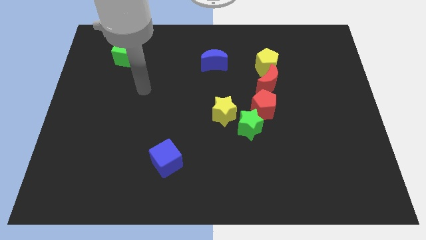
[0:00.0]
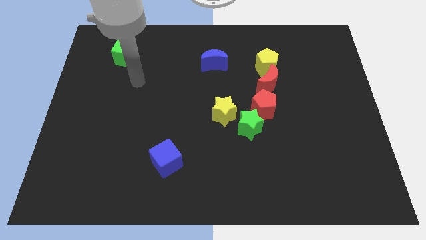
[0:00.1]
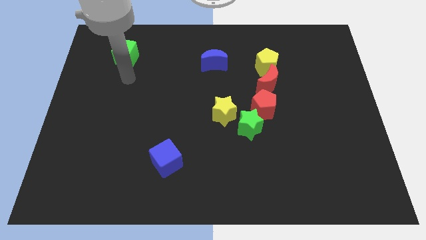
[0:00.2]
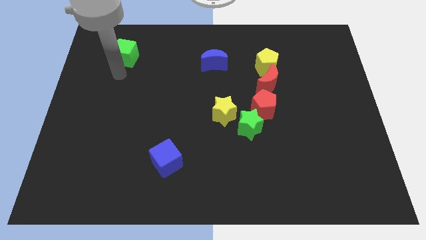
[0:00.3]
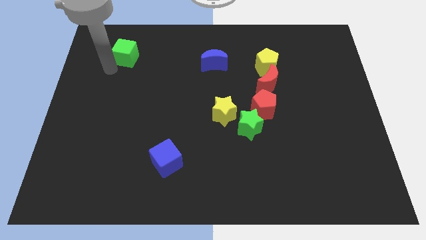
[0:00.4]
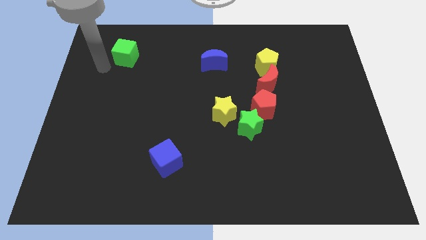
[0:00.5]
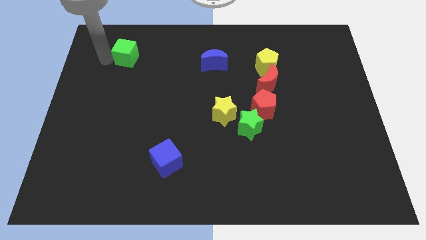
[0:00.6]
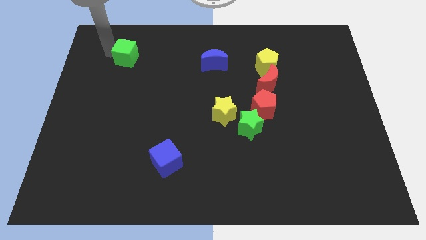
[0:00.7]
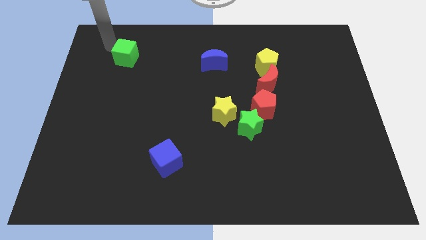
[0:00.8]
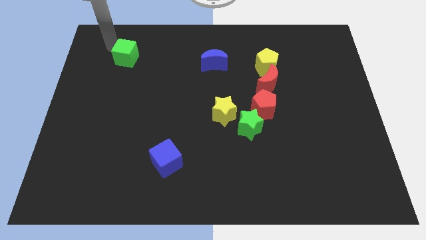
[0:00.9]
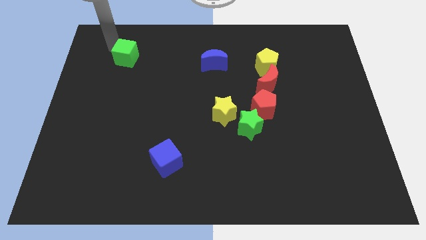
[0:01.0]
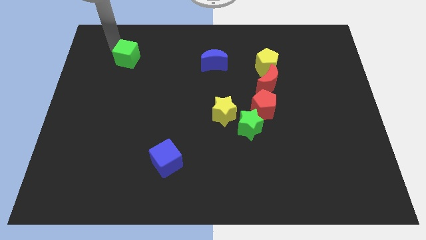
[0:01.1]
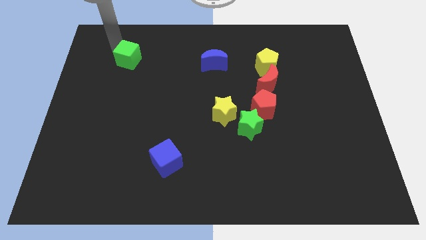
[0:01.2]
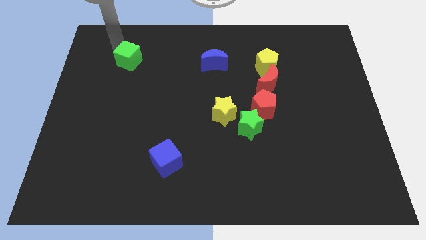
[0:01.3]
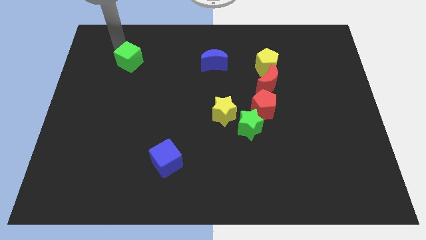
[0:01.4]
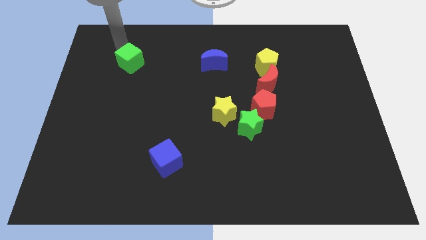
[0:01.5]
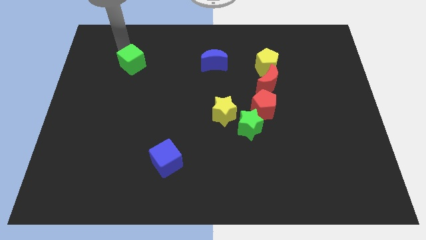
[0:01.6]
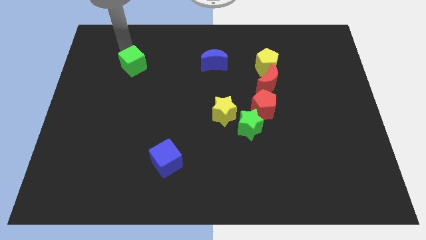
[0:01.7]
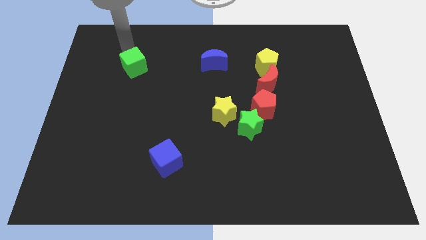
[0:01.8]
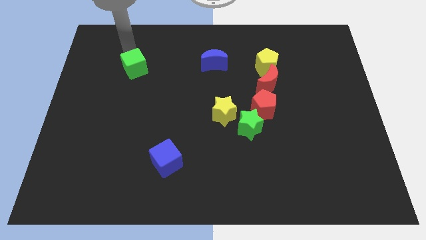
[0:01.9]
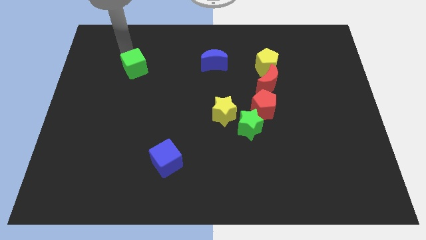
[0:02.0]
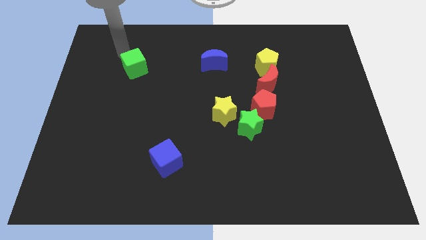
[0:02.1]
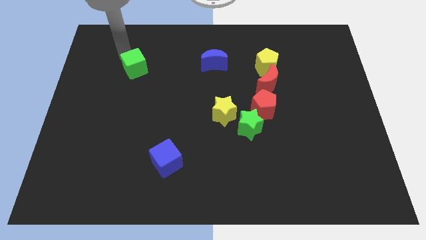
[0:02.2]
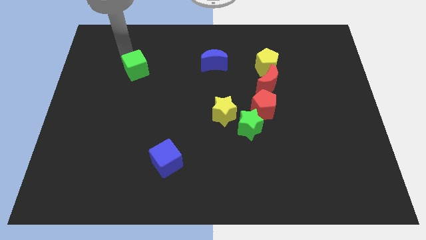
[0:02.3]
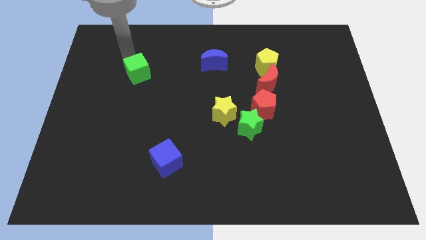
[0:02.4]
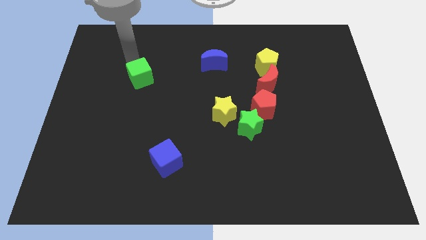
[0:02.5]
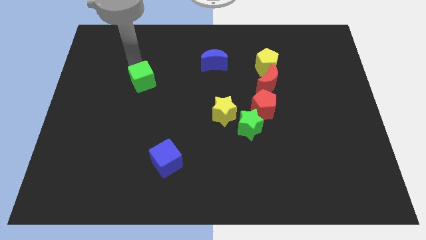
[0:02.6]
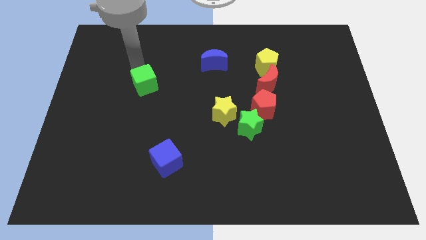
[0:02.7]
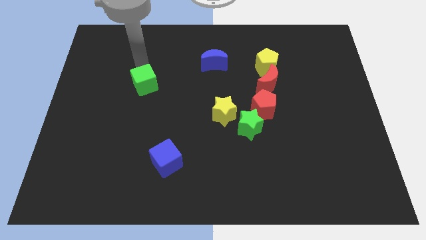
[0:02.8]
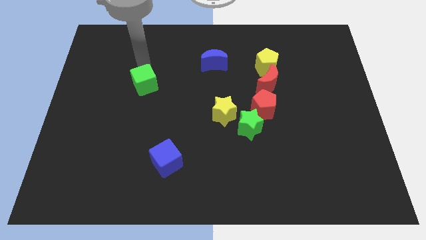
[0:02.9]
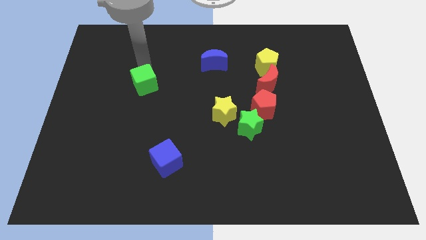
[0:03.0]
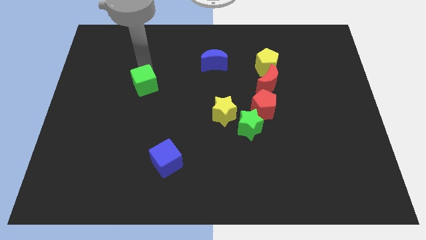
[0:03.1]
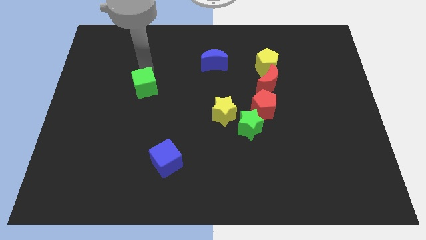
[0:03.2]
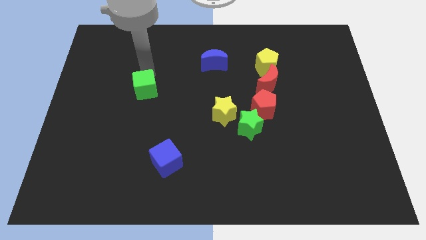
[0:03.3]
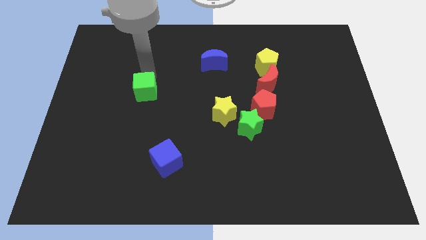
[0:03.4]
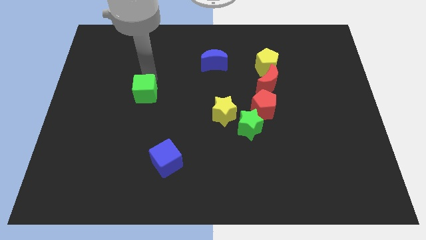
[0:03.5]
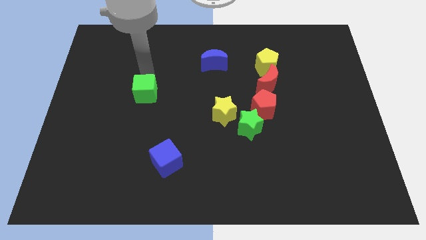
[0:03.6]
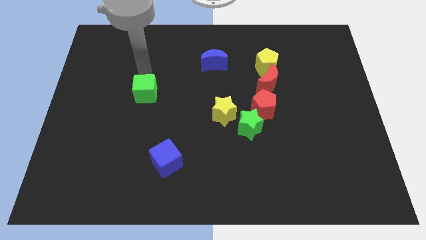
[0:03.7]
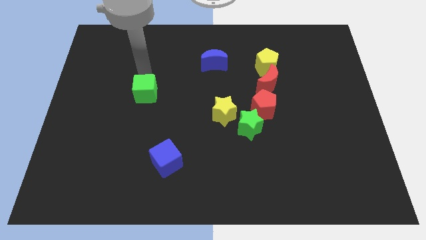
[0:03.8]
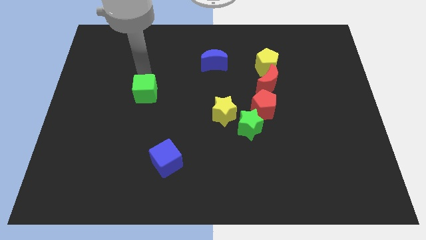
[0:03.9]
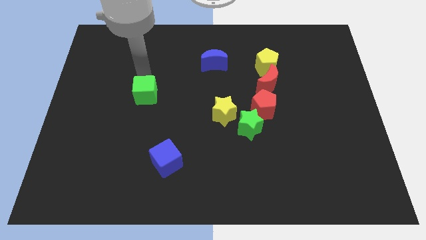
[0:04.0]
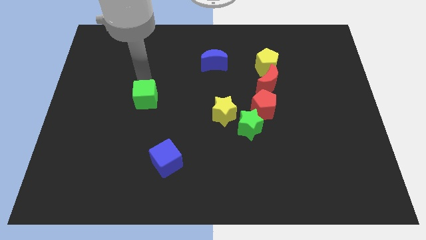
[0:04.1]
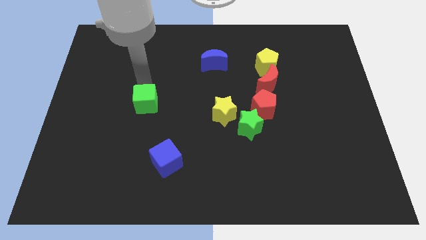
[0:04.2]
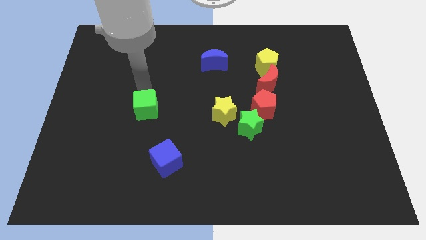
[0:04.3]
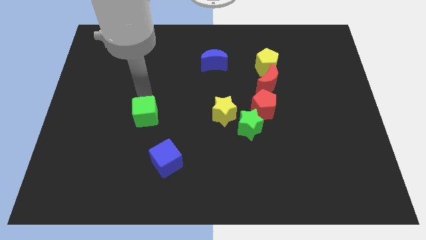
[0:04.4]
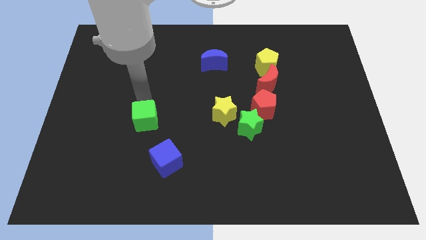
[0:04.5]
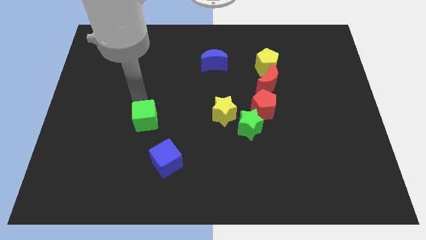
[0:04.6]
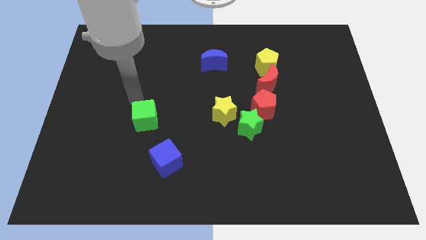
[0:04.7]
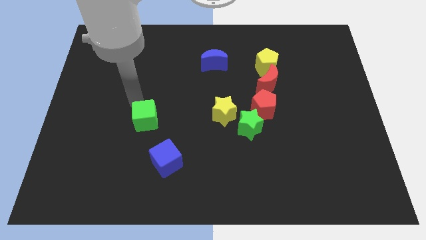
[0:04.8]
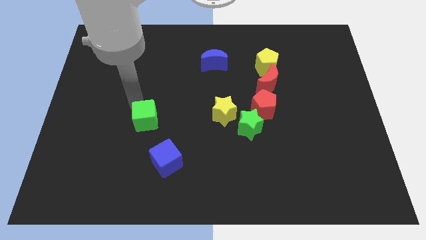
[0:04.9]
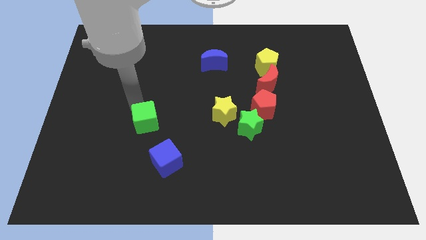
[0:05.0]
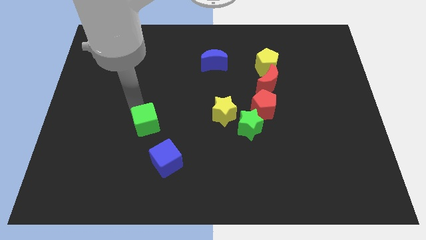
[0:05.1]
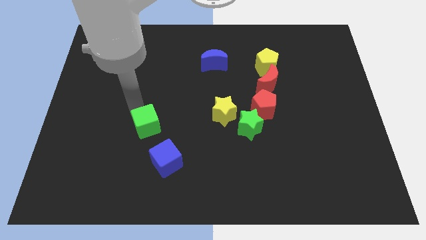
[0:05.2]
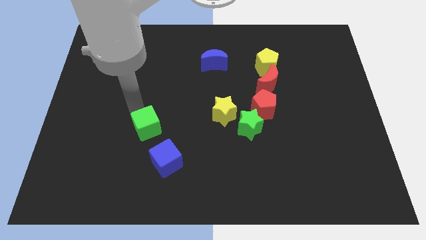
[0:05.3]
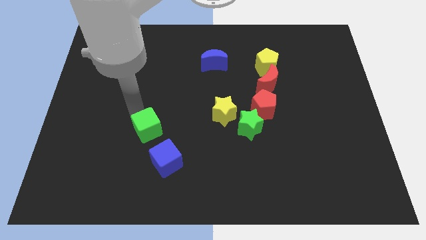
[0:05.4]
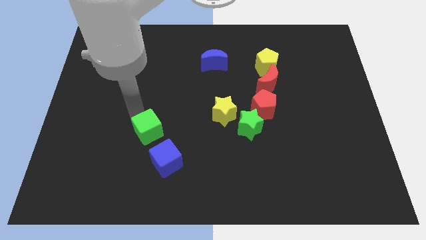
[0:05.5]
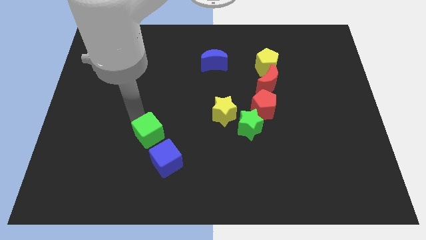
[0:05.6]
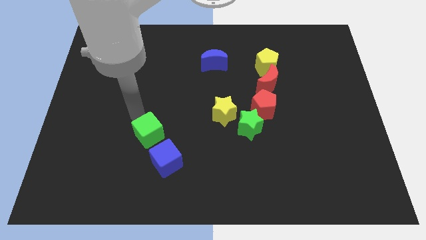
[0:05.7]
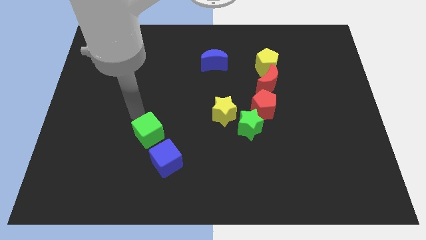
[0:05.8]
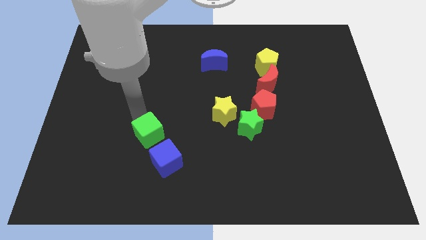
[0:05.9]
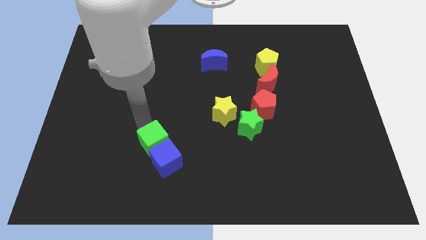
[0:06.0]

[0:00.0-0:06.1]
slide the green cube close to the blue cube

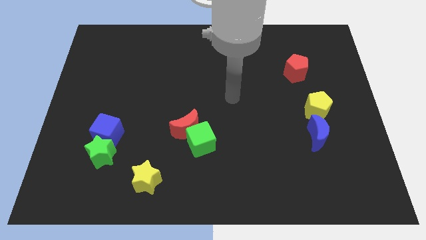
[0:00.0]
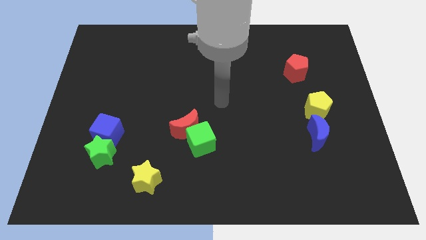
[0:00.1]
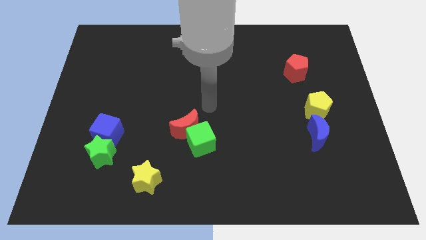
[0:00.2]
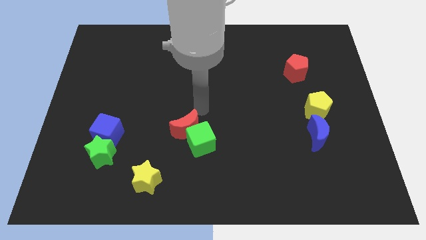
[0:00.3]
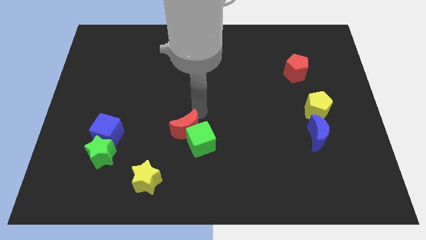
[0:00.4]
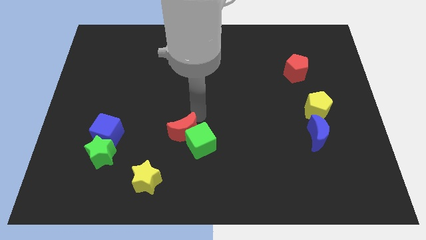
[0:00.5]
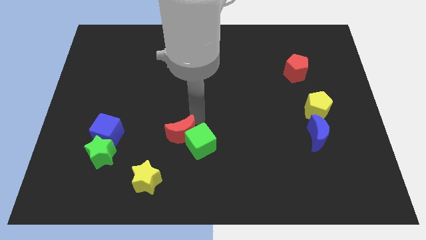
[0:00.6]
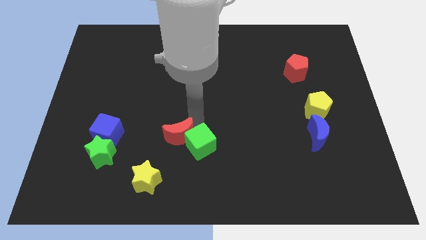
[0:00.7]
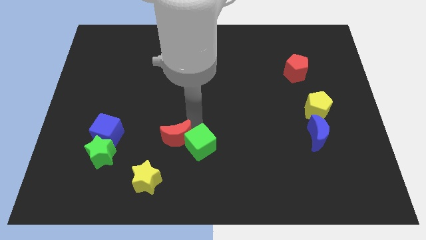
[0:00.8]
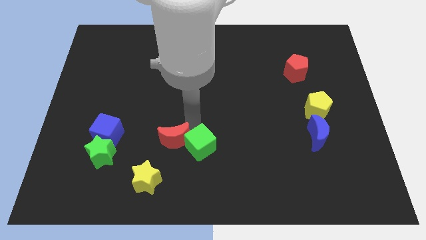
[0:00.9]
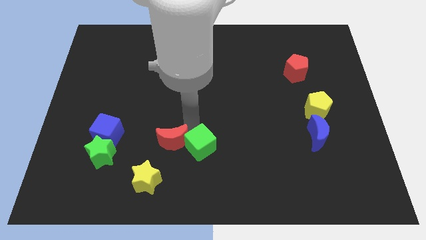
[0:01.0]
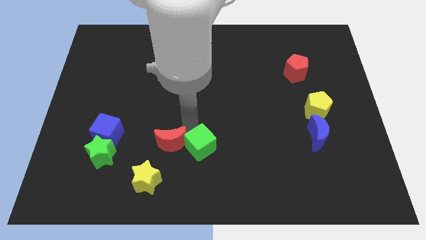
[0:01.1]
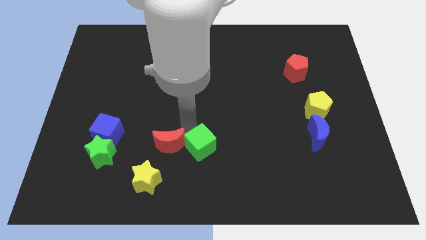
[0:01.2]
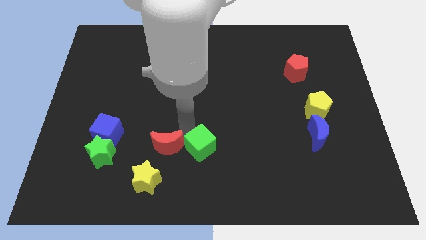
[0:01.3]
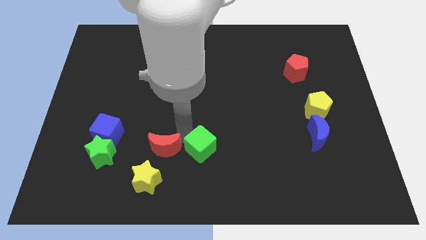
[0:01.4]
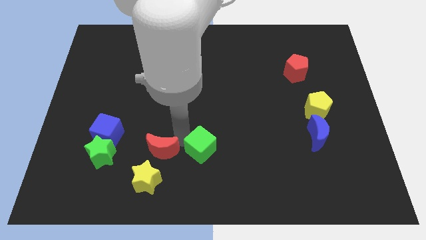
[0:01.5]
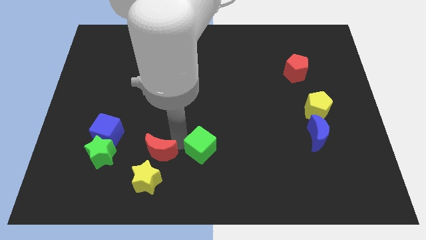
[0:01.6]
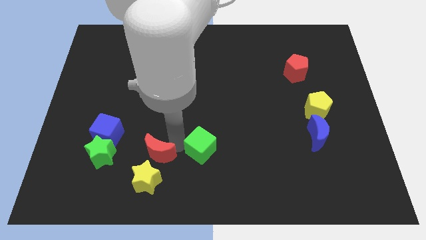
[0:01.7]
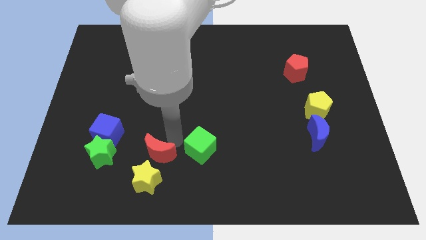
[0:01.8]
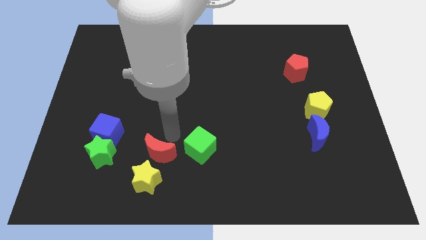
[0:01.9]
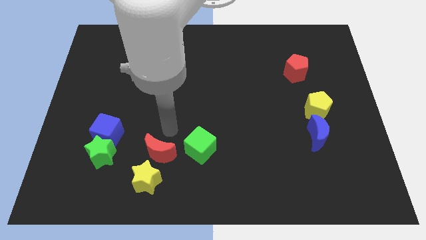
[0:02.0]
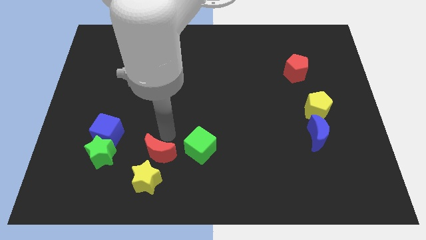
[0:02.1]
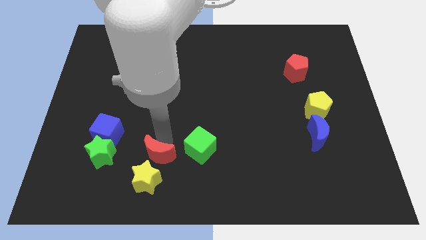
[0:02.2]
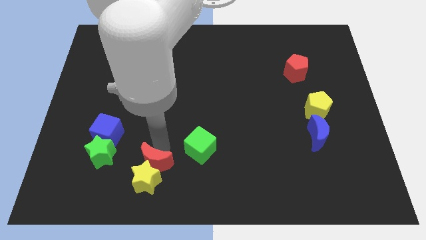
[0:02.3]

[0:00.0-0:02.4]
slide the red moon close to the yellow star

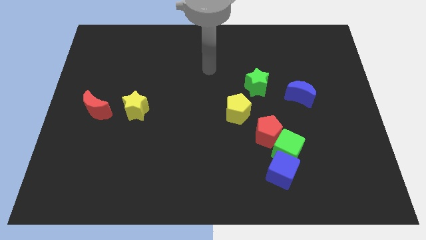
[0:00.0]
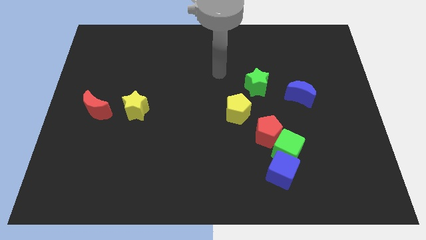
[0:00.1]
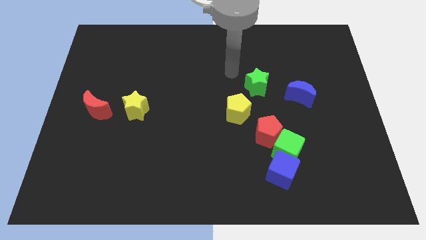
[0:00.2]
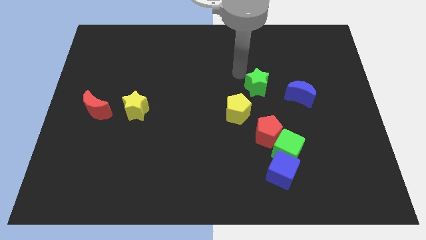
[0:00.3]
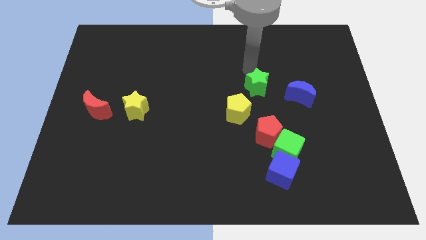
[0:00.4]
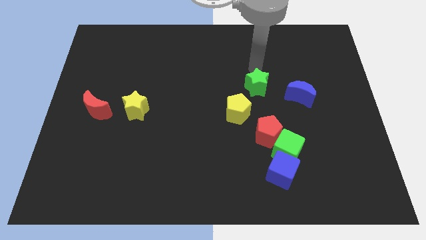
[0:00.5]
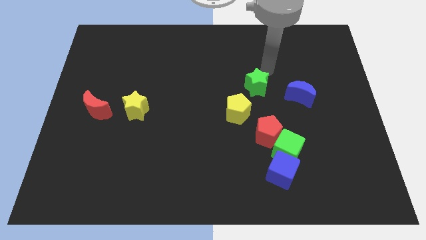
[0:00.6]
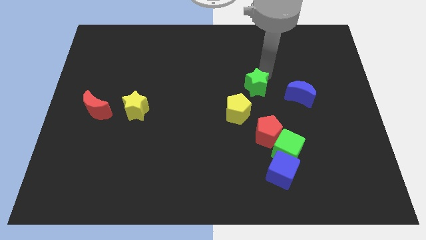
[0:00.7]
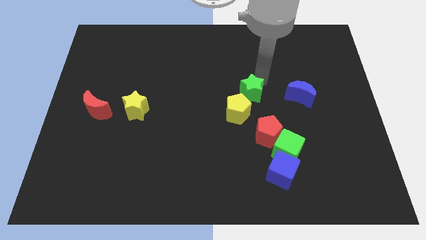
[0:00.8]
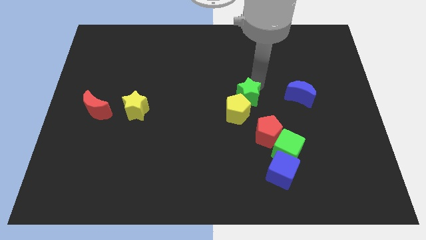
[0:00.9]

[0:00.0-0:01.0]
move the green star to the yellow pentagon
